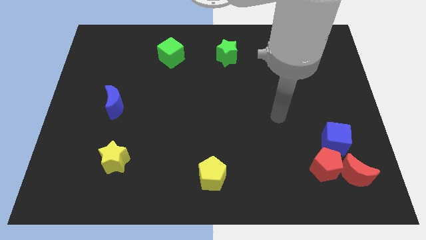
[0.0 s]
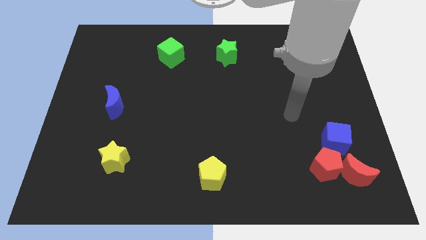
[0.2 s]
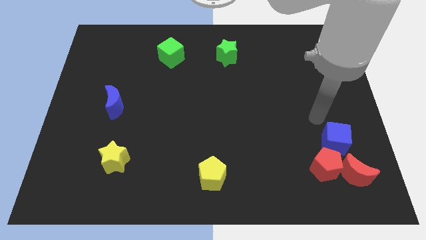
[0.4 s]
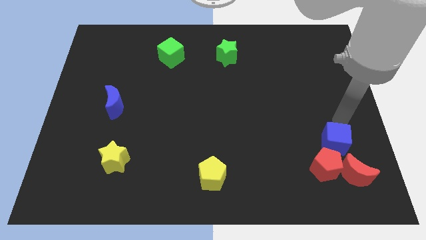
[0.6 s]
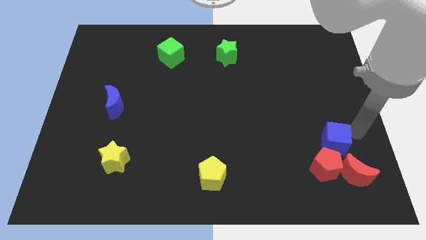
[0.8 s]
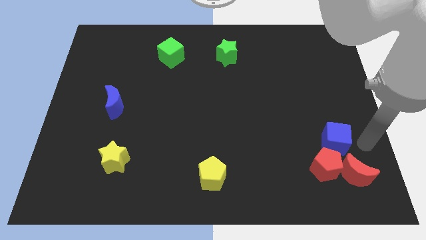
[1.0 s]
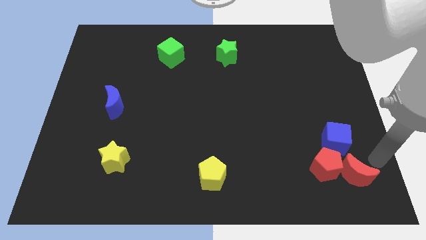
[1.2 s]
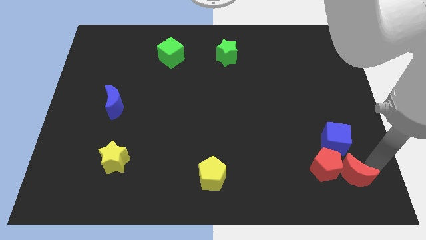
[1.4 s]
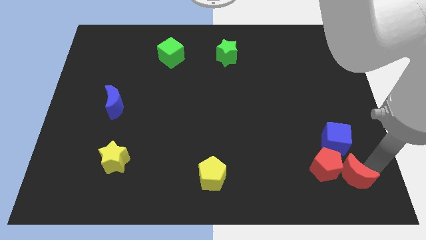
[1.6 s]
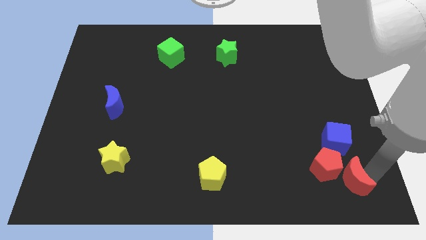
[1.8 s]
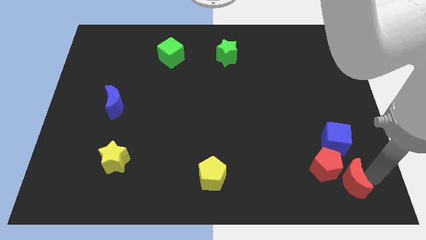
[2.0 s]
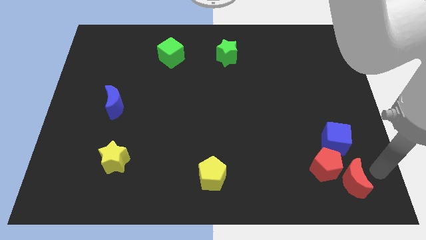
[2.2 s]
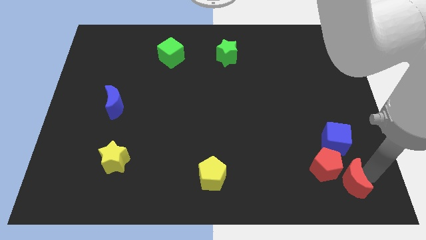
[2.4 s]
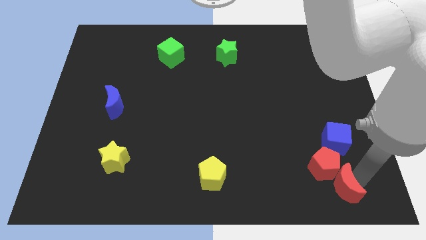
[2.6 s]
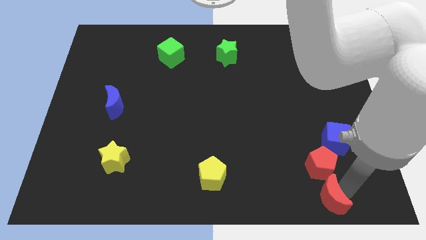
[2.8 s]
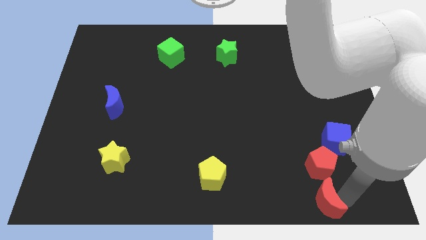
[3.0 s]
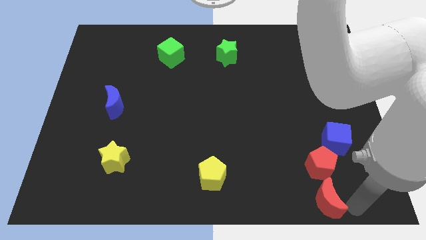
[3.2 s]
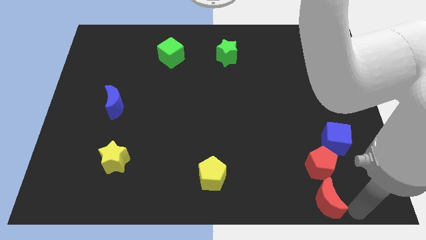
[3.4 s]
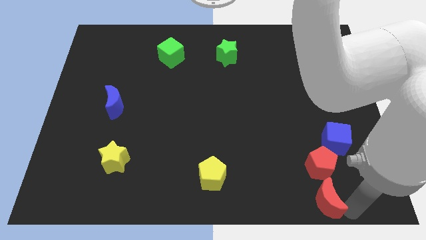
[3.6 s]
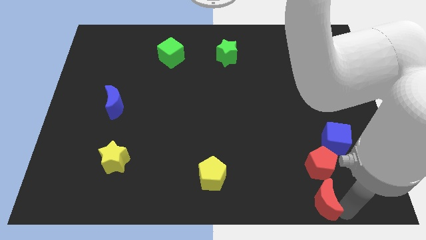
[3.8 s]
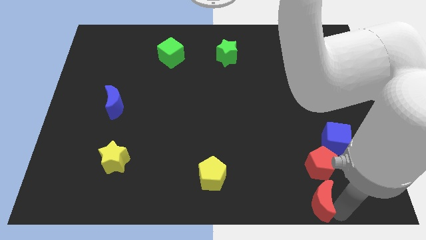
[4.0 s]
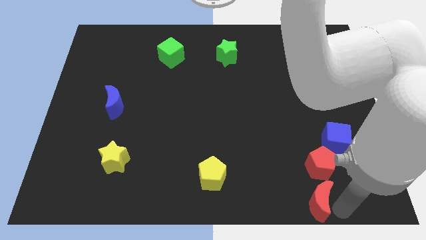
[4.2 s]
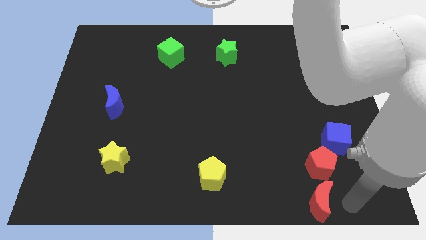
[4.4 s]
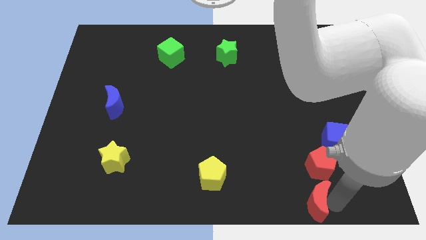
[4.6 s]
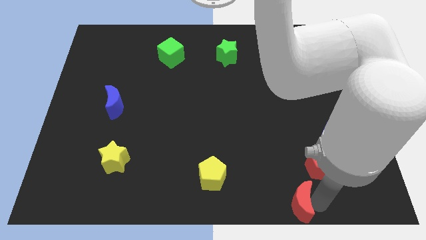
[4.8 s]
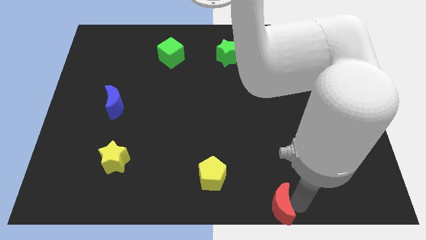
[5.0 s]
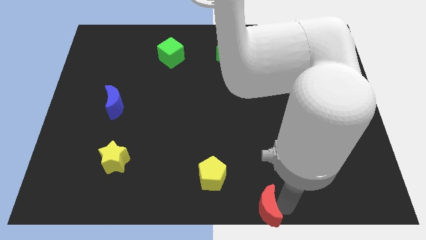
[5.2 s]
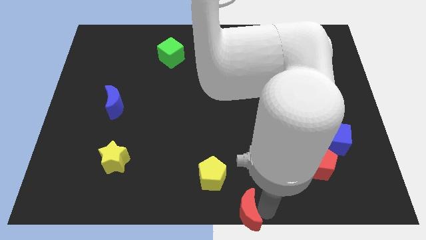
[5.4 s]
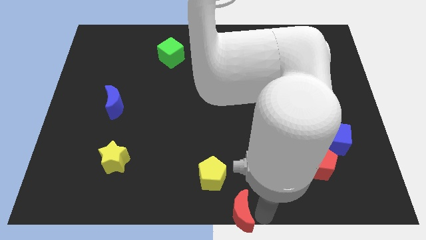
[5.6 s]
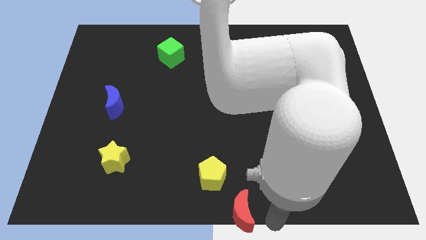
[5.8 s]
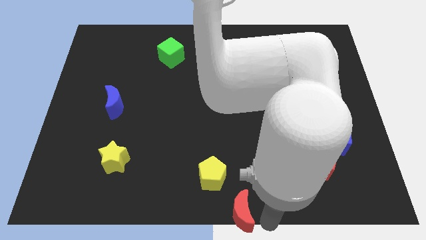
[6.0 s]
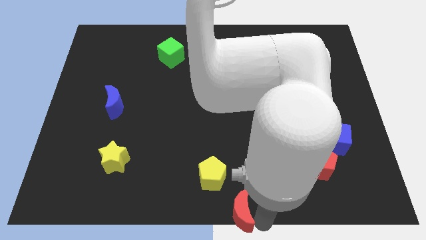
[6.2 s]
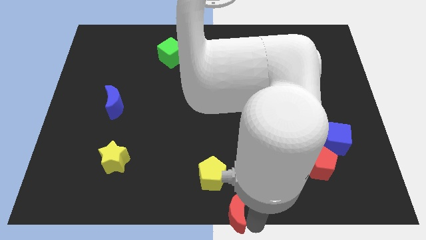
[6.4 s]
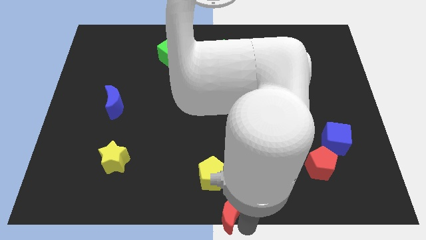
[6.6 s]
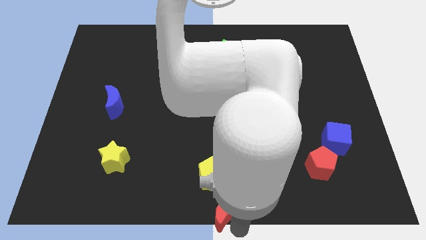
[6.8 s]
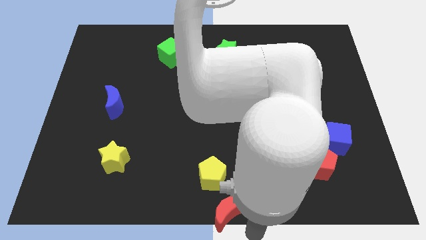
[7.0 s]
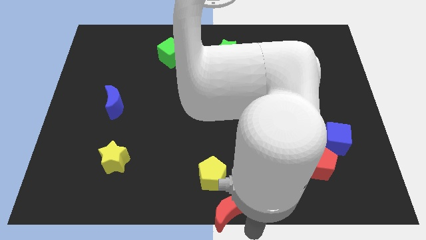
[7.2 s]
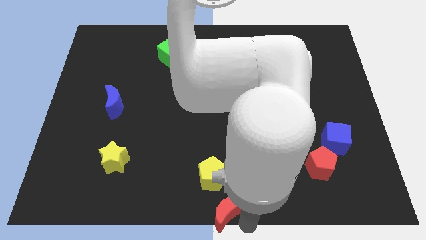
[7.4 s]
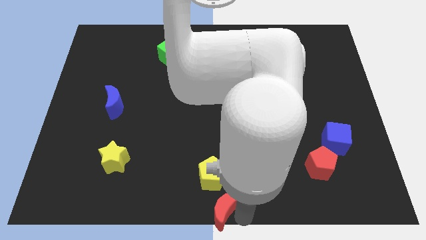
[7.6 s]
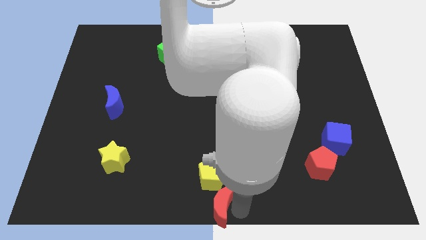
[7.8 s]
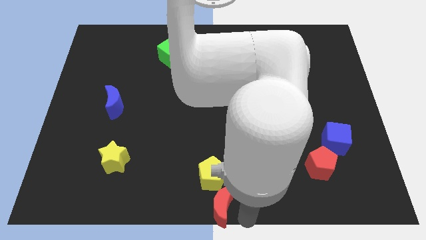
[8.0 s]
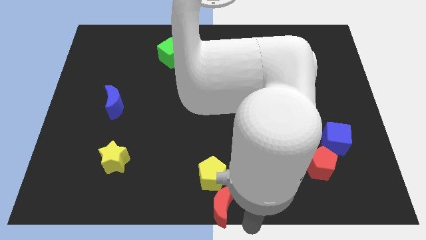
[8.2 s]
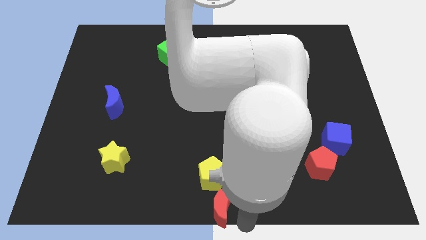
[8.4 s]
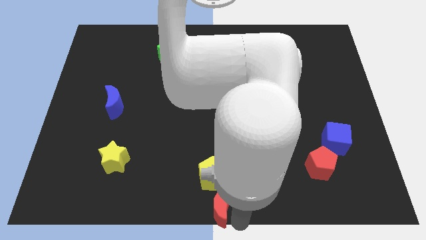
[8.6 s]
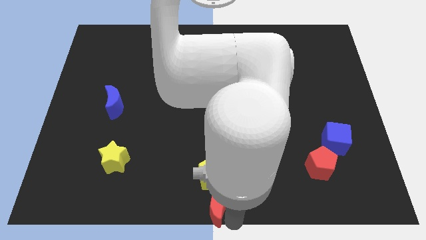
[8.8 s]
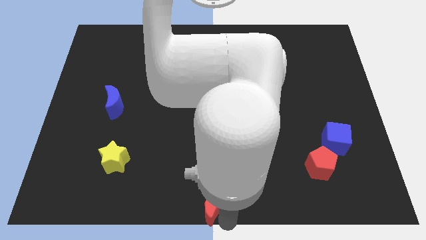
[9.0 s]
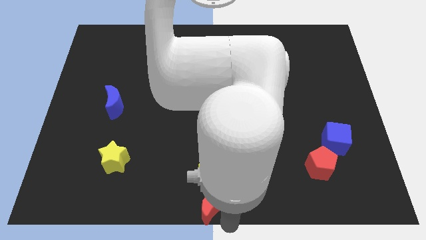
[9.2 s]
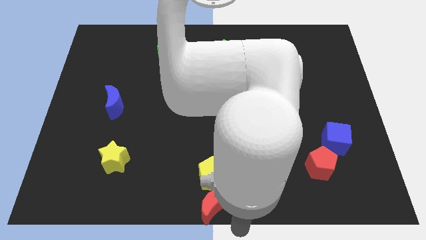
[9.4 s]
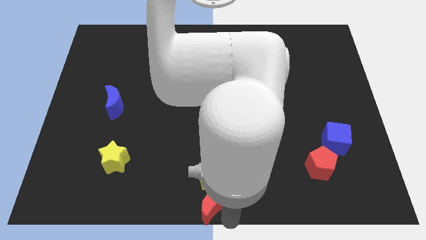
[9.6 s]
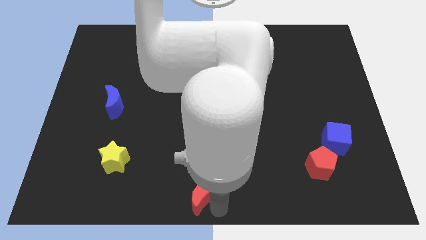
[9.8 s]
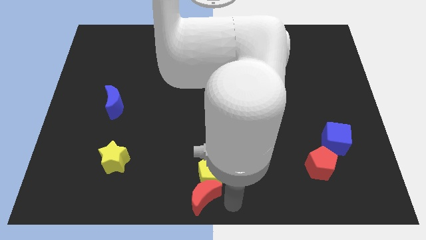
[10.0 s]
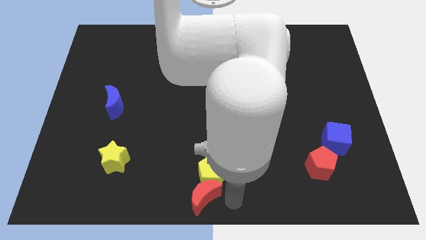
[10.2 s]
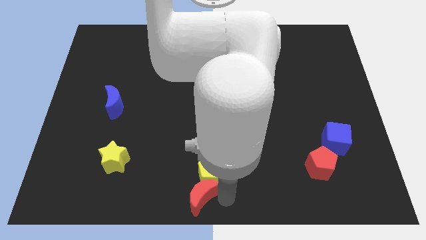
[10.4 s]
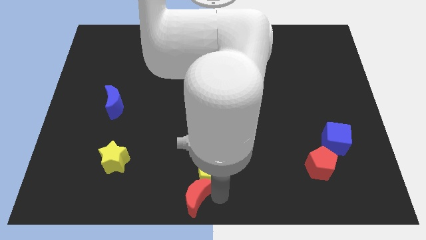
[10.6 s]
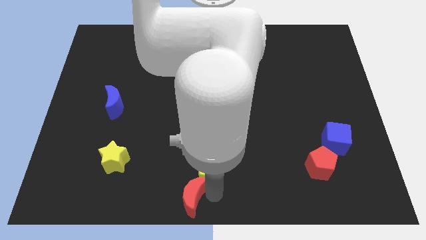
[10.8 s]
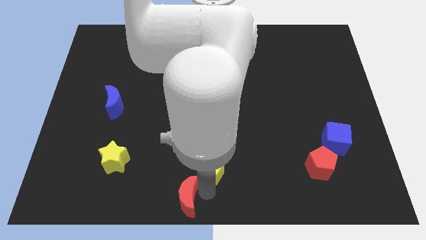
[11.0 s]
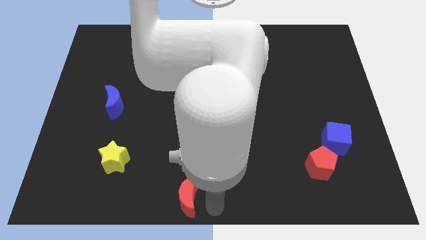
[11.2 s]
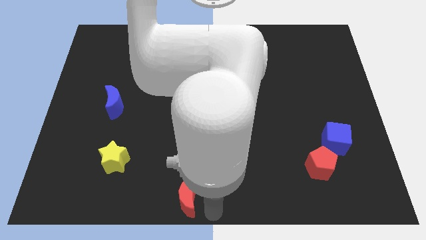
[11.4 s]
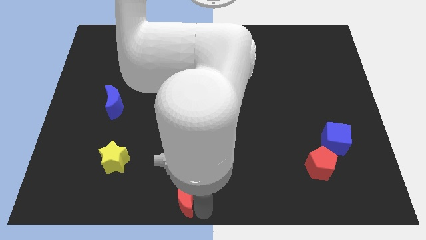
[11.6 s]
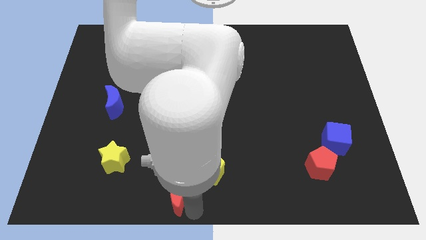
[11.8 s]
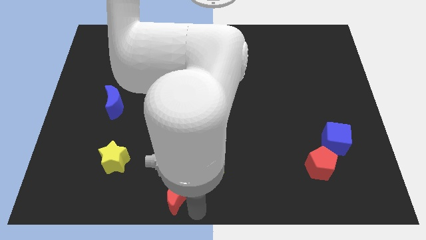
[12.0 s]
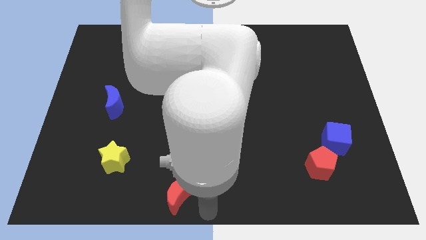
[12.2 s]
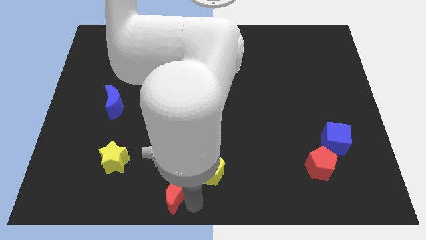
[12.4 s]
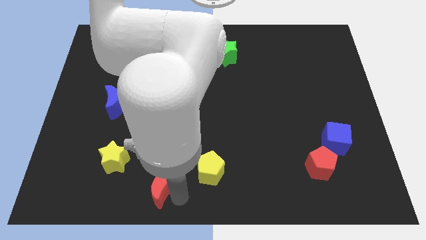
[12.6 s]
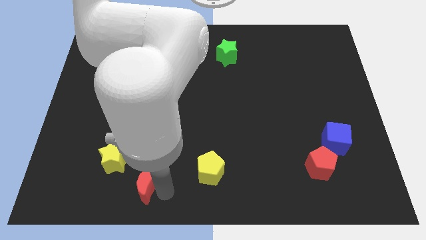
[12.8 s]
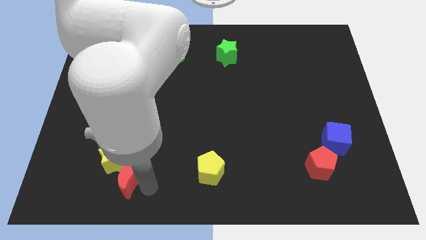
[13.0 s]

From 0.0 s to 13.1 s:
push the red moon towards the yellow star

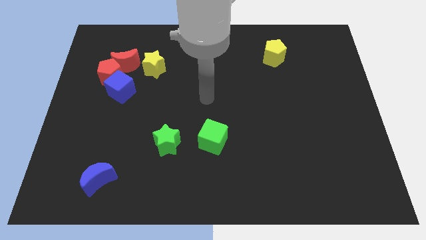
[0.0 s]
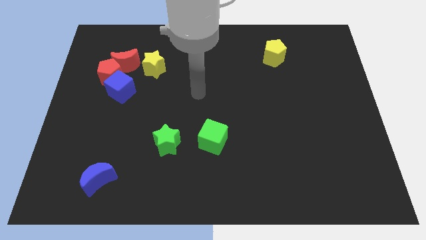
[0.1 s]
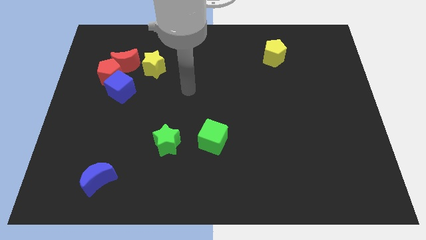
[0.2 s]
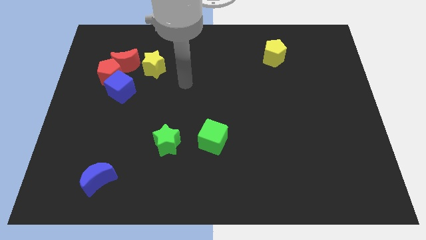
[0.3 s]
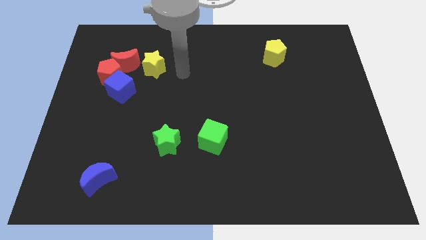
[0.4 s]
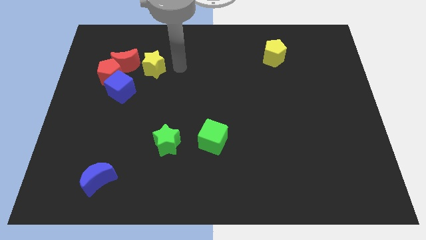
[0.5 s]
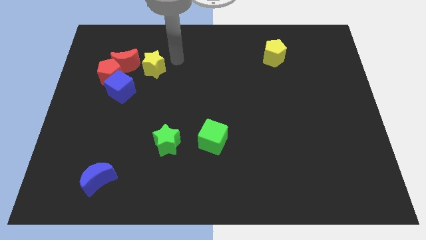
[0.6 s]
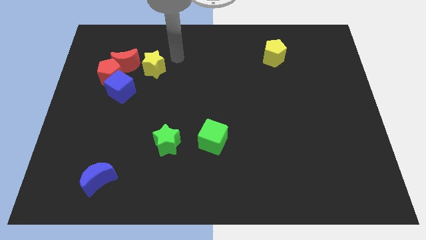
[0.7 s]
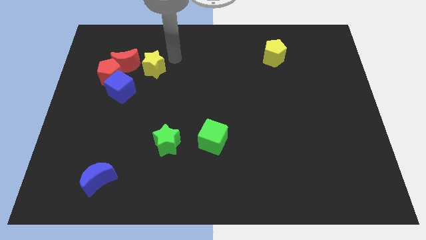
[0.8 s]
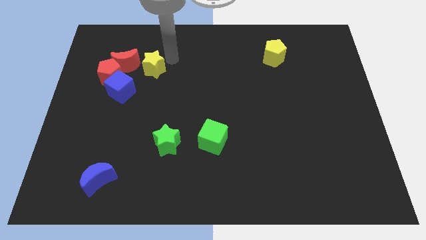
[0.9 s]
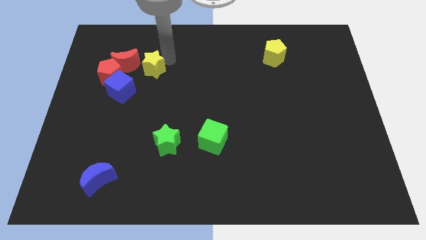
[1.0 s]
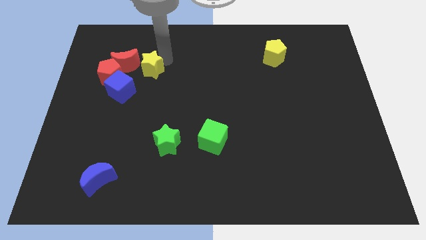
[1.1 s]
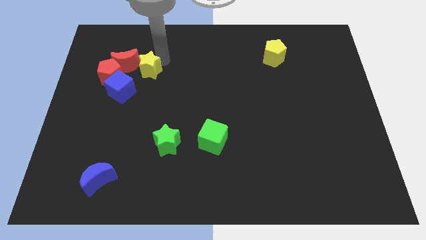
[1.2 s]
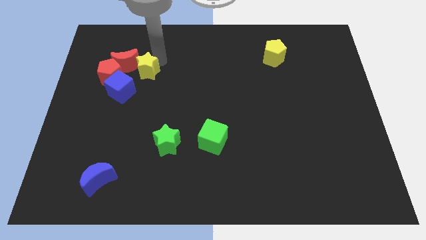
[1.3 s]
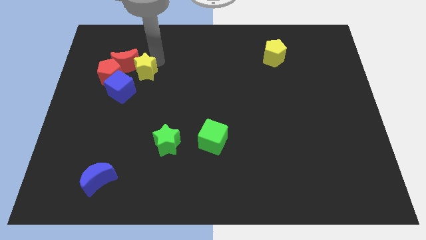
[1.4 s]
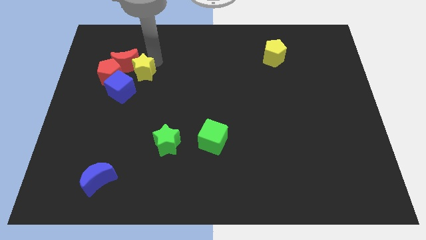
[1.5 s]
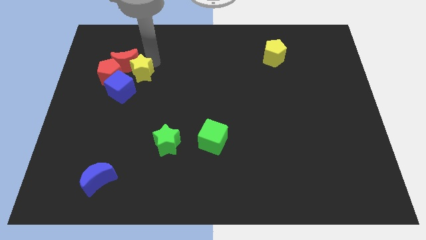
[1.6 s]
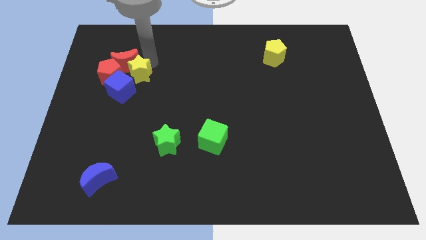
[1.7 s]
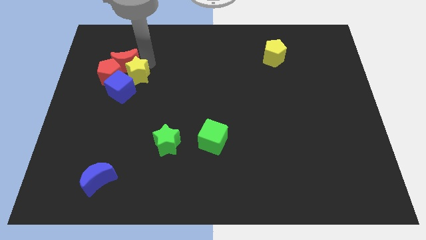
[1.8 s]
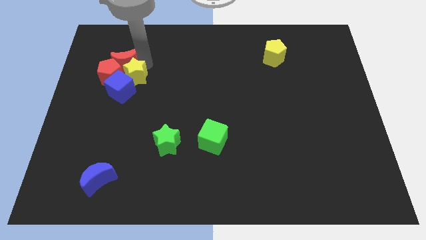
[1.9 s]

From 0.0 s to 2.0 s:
push the yellow star to the blue cube

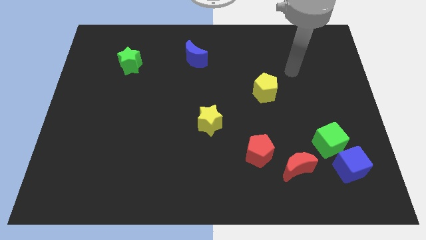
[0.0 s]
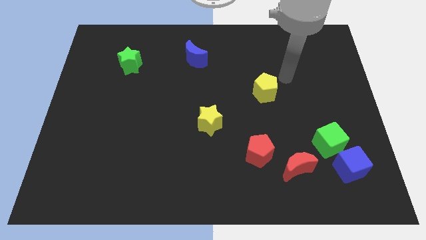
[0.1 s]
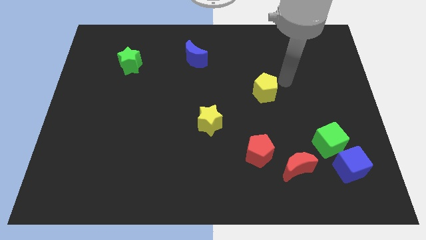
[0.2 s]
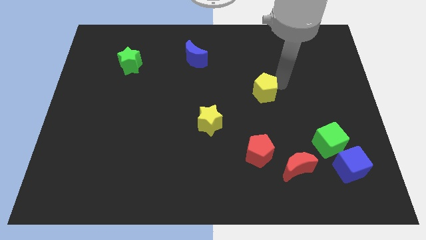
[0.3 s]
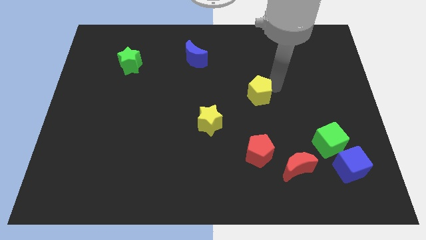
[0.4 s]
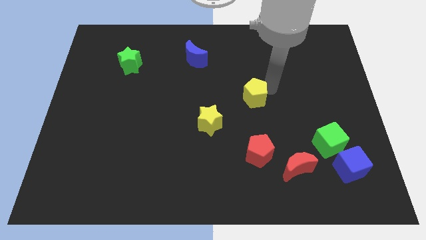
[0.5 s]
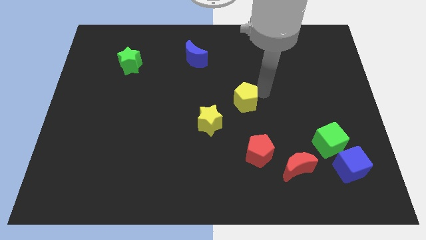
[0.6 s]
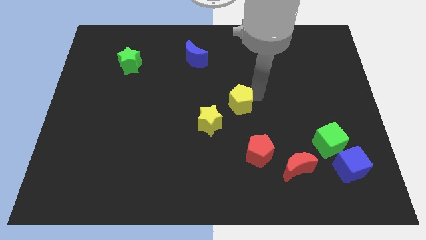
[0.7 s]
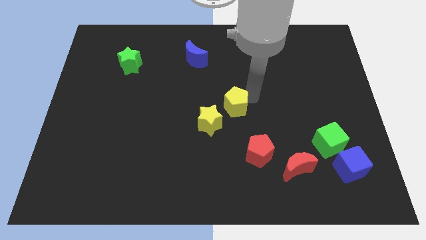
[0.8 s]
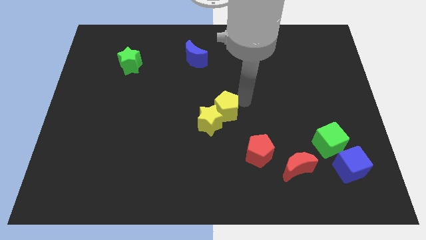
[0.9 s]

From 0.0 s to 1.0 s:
slide the yellow pentagon to the yellow star
